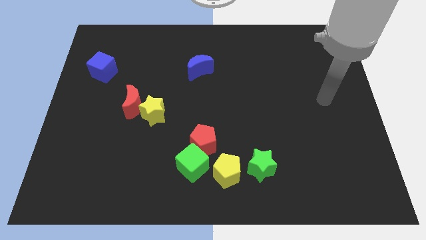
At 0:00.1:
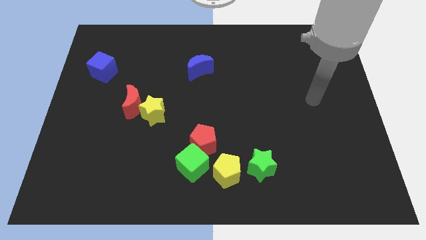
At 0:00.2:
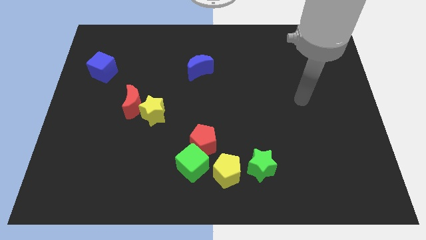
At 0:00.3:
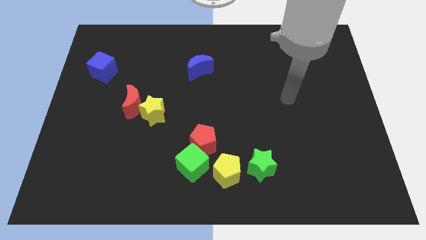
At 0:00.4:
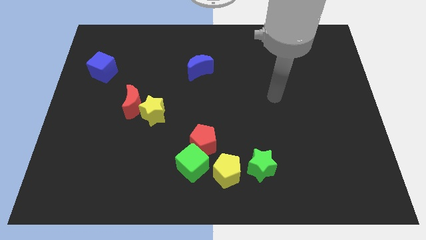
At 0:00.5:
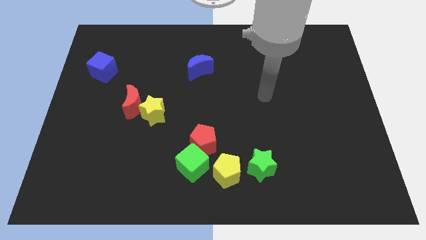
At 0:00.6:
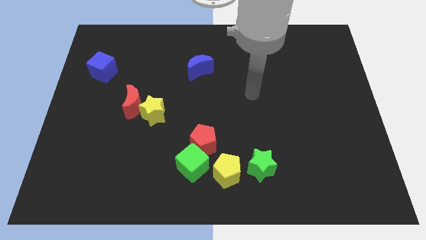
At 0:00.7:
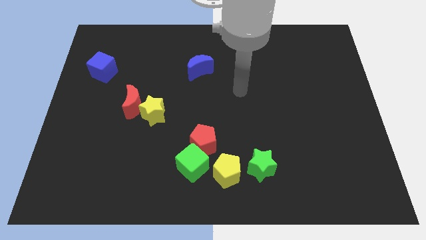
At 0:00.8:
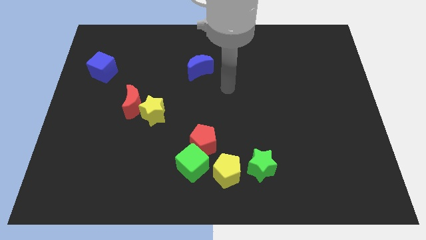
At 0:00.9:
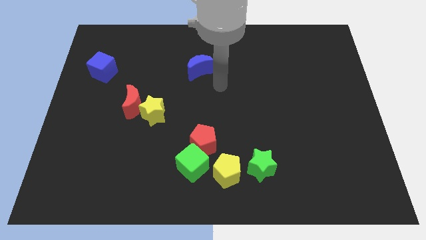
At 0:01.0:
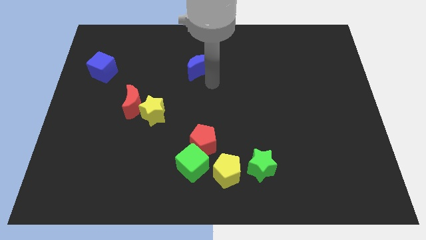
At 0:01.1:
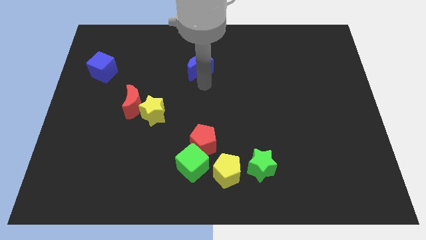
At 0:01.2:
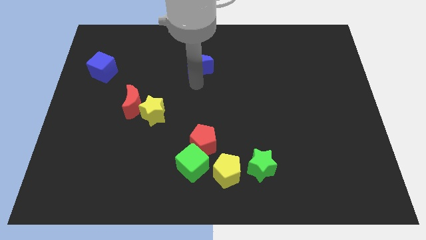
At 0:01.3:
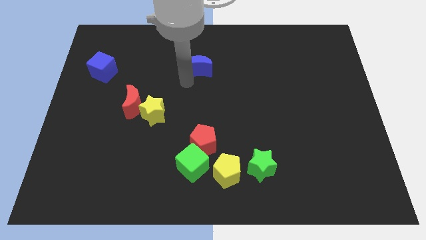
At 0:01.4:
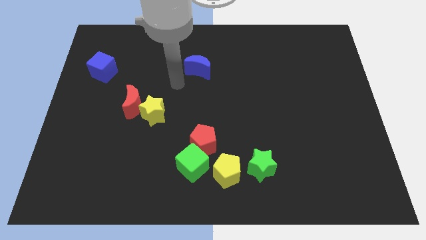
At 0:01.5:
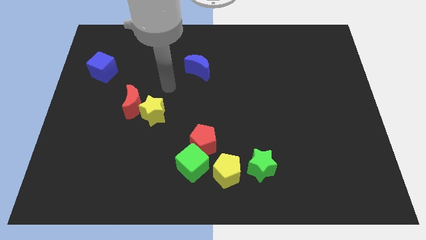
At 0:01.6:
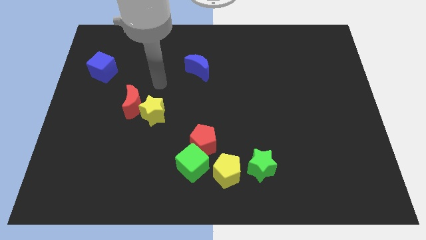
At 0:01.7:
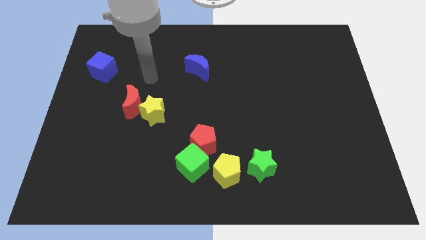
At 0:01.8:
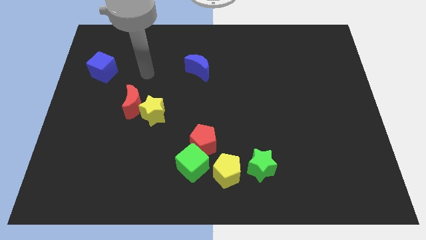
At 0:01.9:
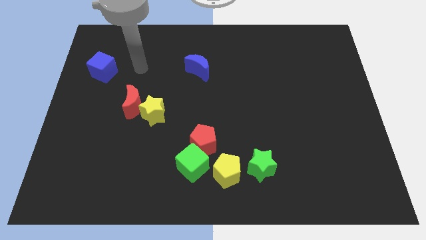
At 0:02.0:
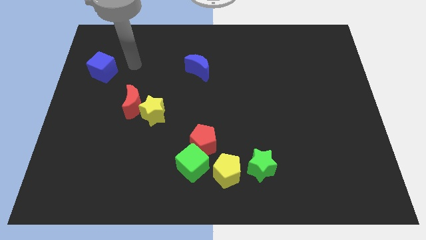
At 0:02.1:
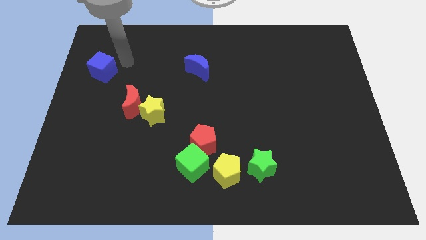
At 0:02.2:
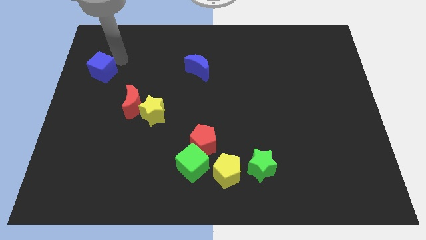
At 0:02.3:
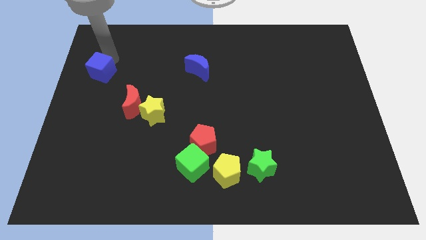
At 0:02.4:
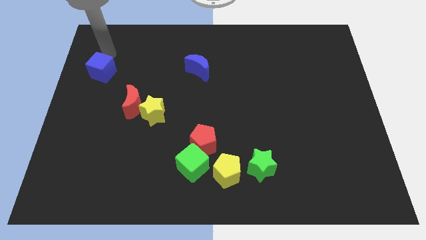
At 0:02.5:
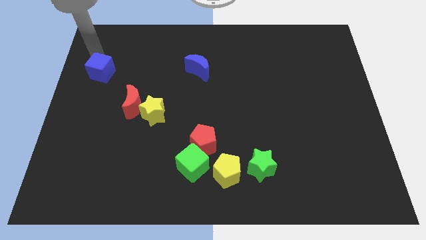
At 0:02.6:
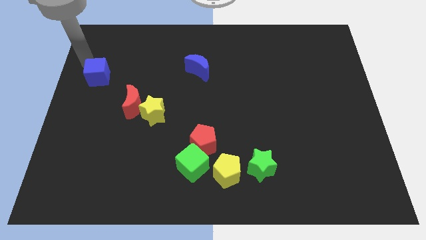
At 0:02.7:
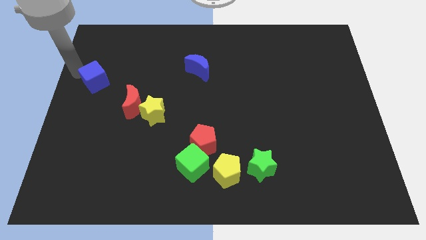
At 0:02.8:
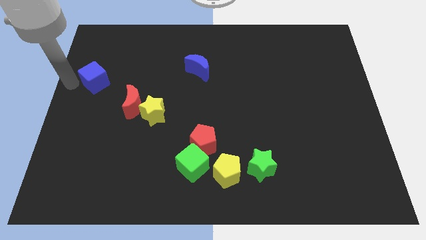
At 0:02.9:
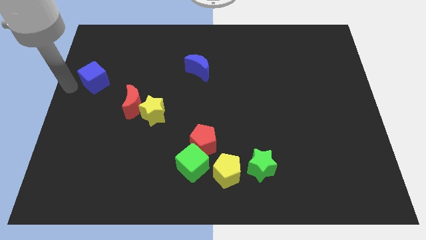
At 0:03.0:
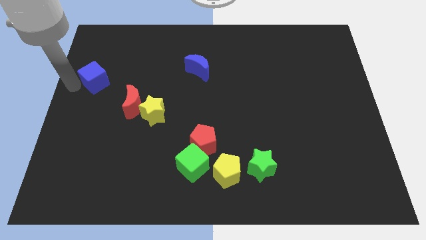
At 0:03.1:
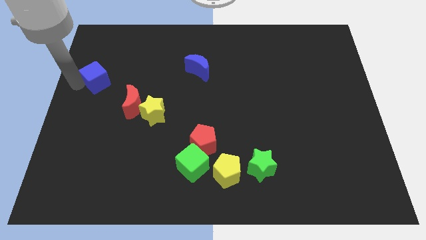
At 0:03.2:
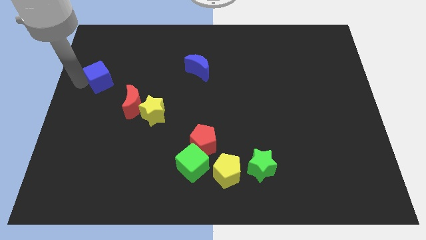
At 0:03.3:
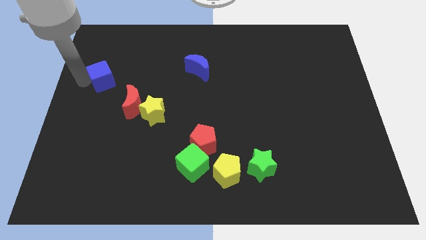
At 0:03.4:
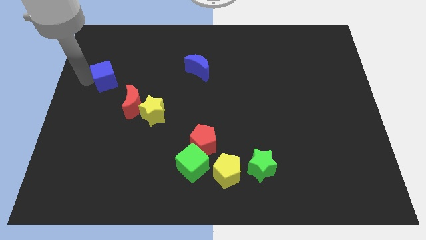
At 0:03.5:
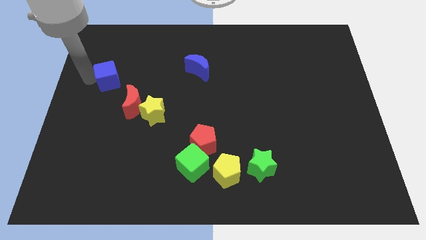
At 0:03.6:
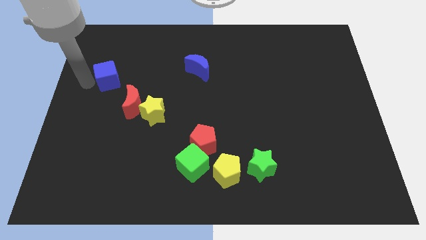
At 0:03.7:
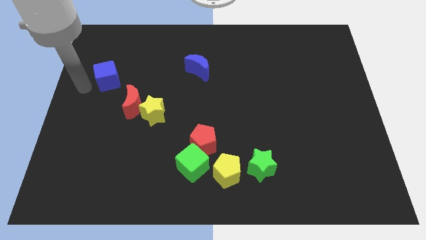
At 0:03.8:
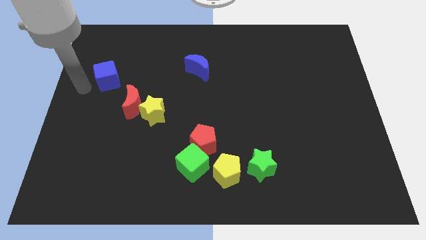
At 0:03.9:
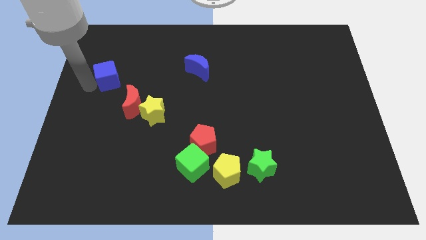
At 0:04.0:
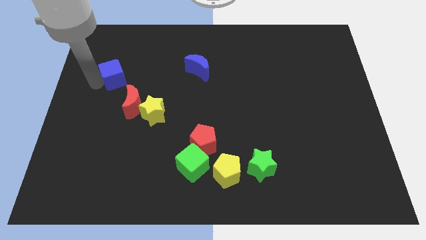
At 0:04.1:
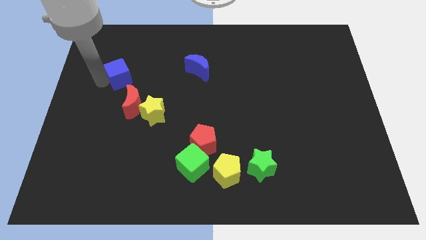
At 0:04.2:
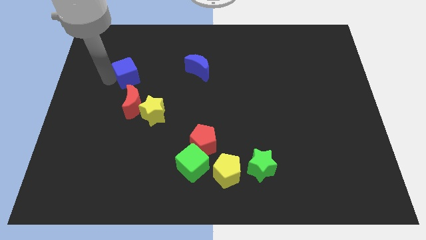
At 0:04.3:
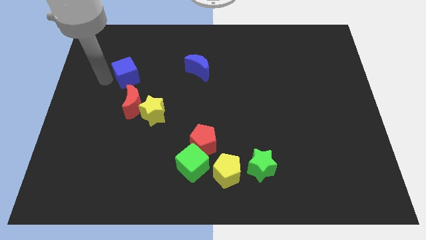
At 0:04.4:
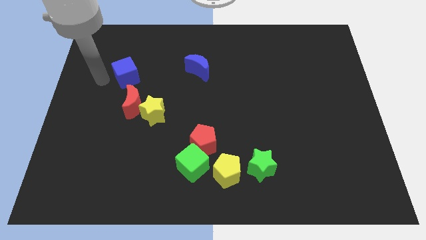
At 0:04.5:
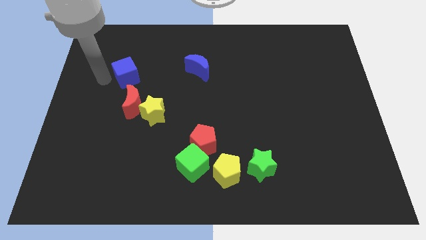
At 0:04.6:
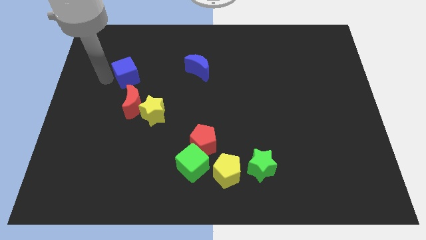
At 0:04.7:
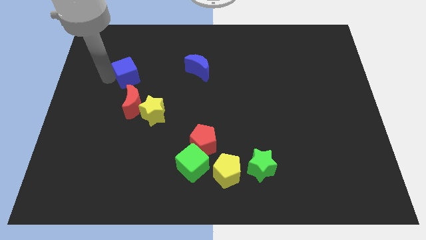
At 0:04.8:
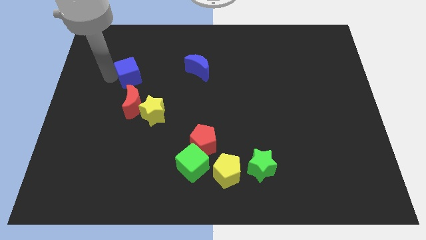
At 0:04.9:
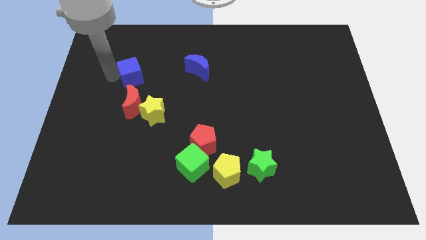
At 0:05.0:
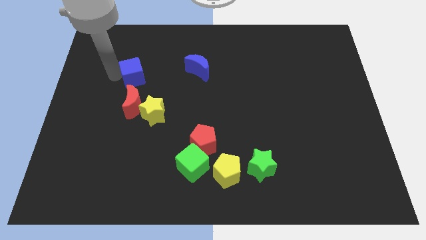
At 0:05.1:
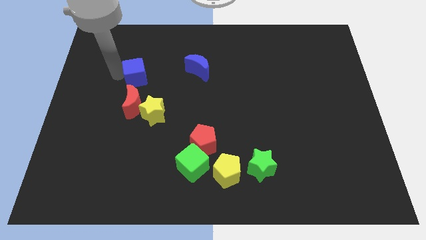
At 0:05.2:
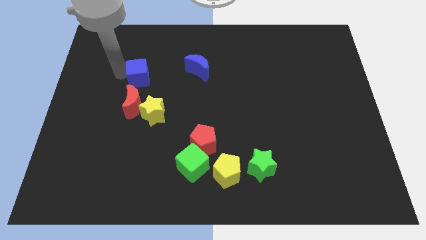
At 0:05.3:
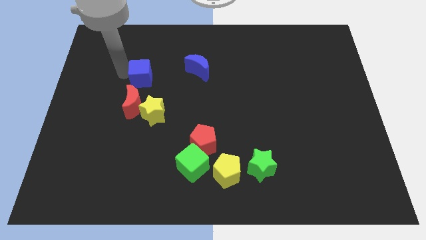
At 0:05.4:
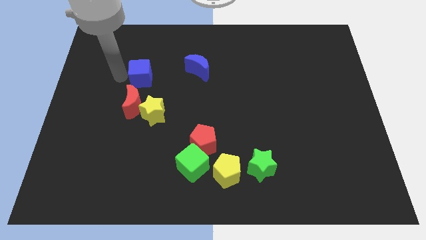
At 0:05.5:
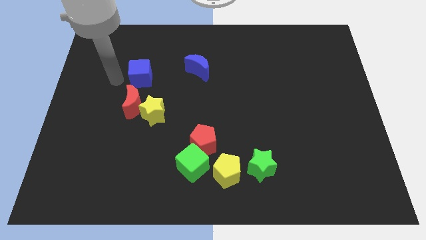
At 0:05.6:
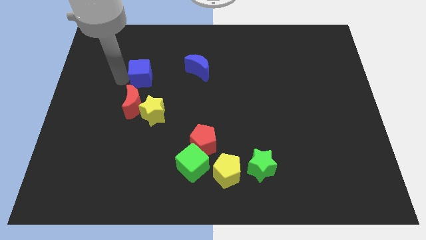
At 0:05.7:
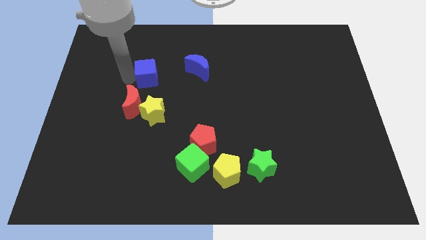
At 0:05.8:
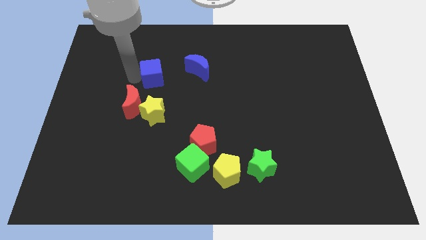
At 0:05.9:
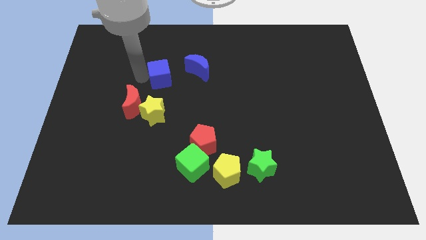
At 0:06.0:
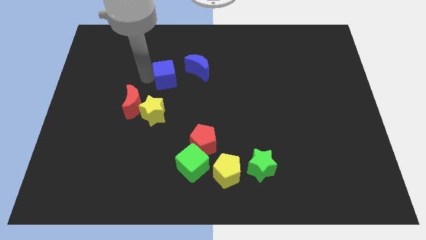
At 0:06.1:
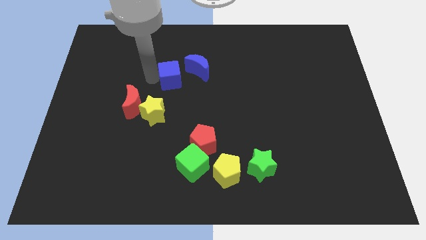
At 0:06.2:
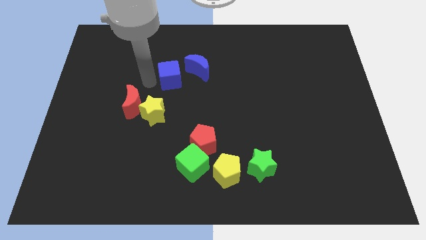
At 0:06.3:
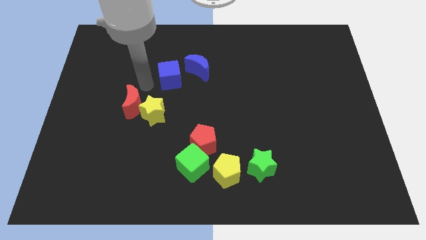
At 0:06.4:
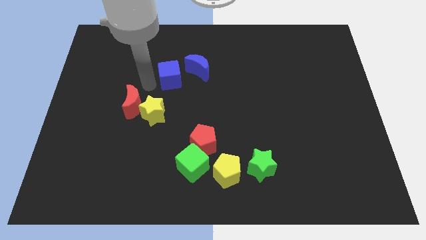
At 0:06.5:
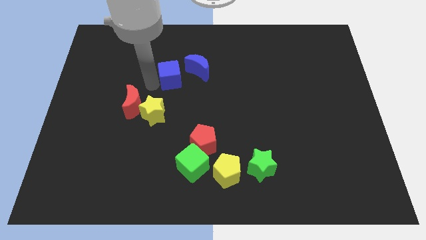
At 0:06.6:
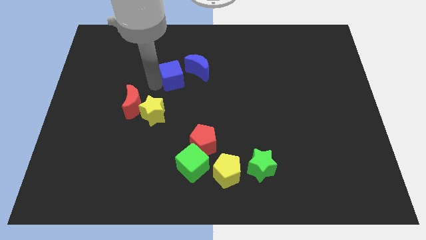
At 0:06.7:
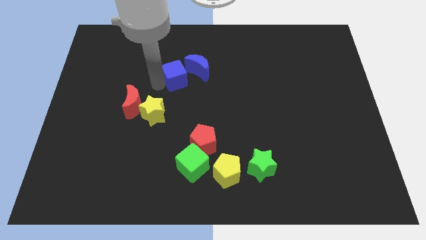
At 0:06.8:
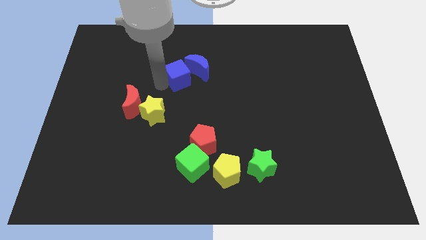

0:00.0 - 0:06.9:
move the blue cube towards the blue moon

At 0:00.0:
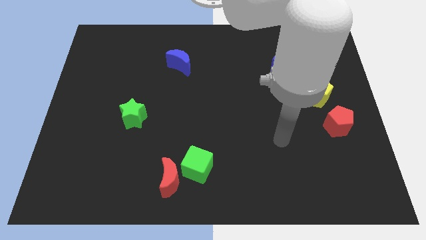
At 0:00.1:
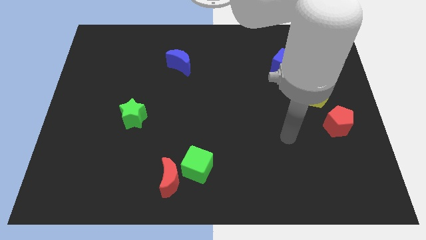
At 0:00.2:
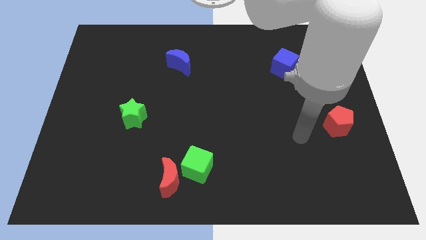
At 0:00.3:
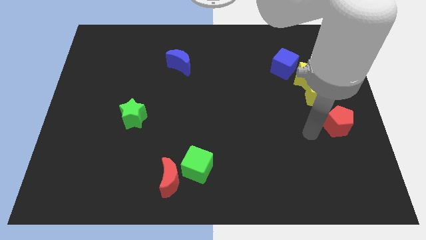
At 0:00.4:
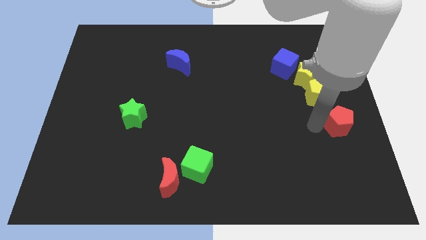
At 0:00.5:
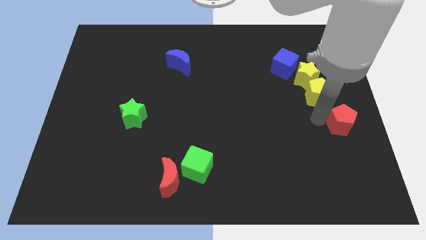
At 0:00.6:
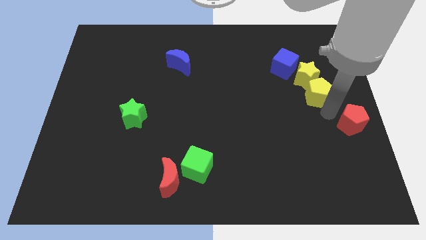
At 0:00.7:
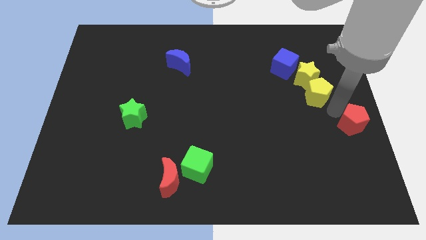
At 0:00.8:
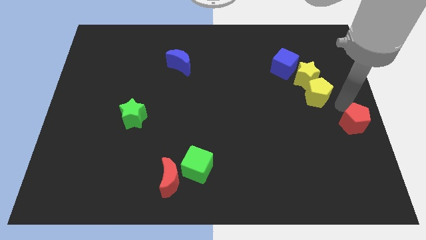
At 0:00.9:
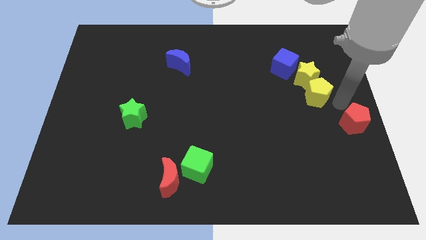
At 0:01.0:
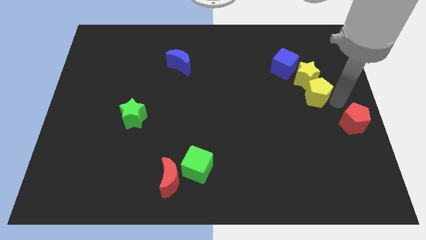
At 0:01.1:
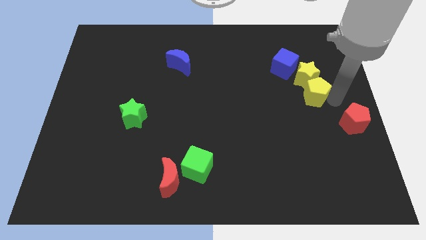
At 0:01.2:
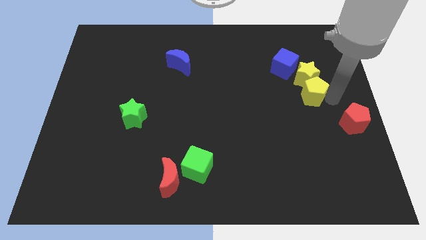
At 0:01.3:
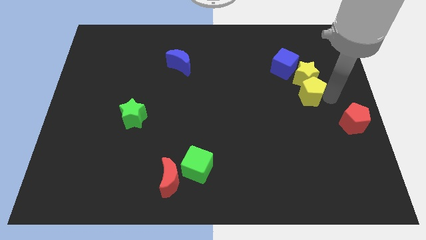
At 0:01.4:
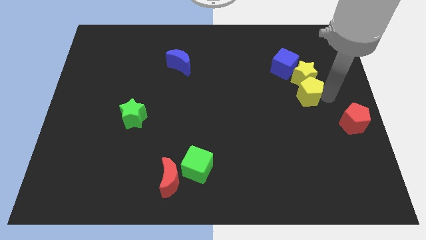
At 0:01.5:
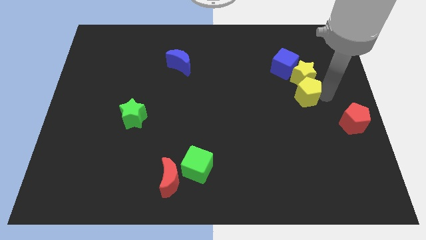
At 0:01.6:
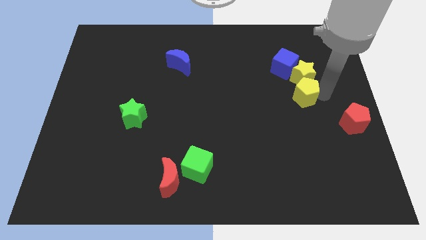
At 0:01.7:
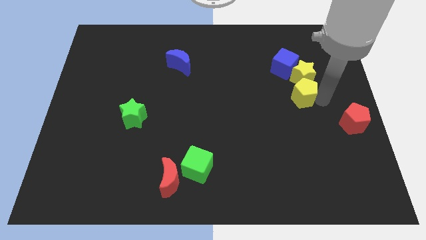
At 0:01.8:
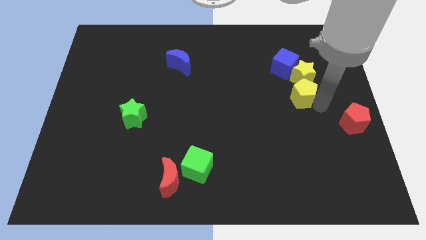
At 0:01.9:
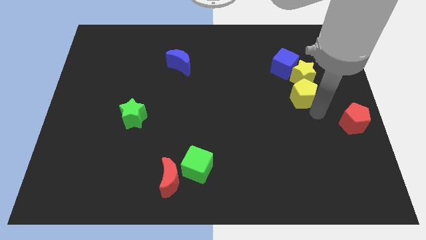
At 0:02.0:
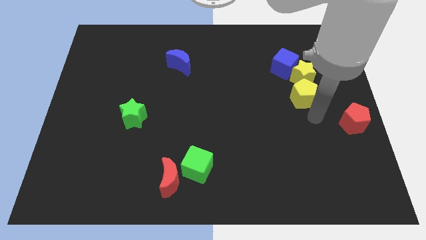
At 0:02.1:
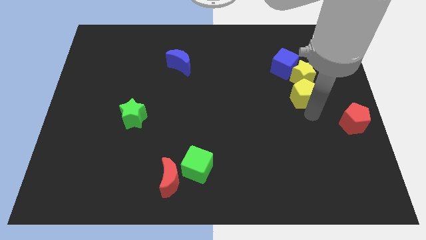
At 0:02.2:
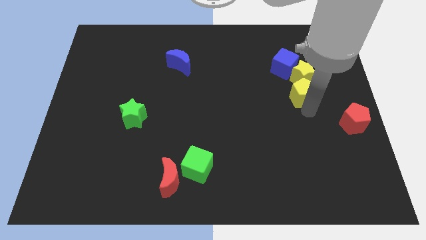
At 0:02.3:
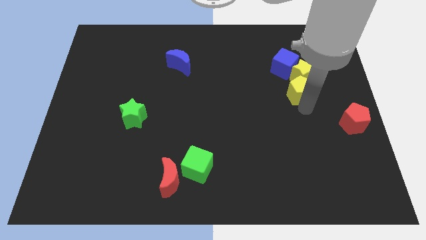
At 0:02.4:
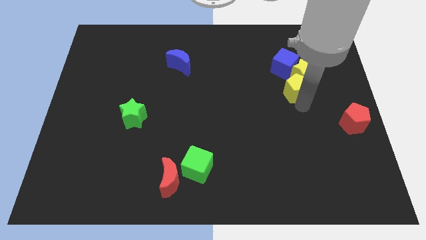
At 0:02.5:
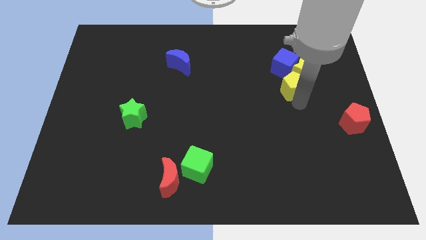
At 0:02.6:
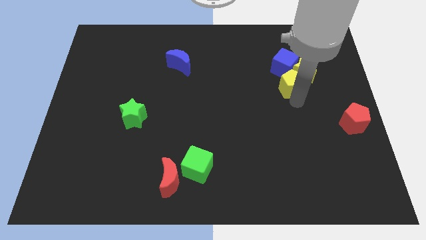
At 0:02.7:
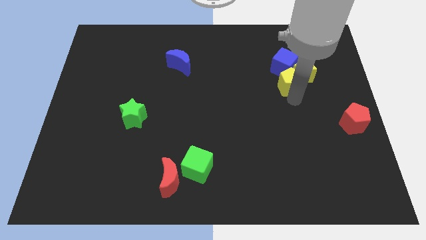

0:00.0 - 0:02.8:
move the yellow pentagon towards the blue cube
